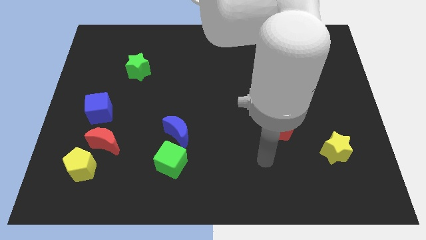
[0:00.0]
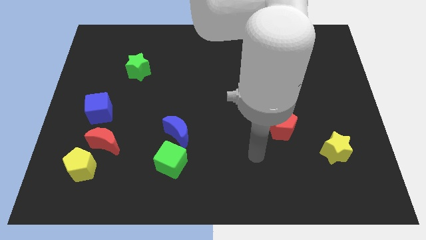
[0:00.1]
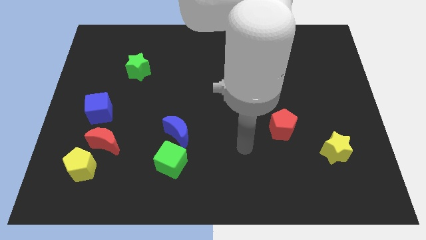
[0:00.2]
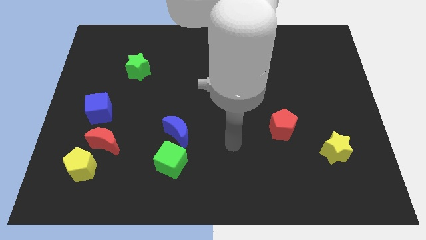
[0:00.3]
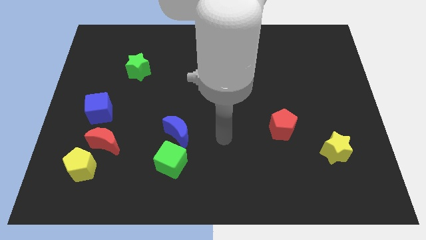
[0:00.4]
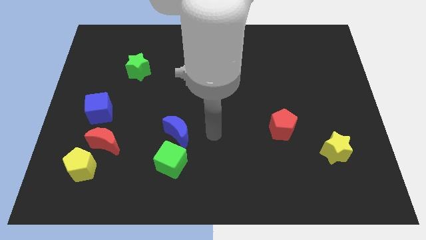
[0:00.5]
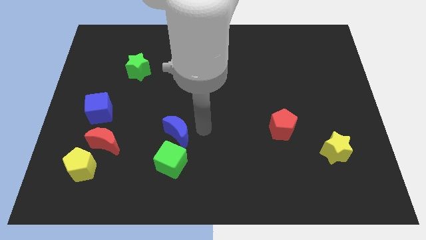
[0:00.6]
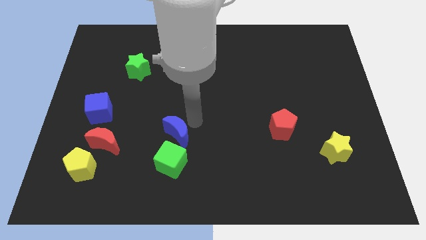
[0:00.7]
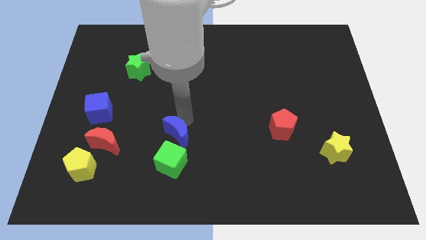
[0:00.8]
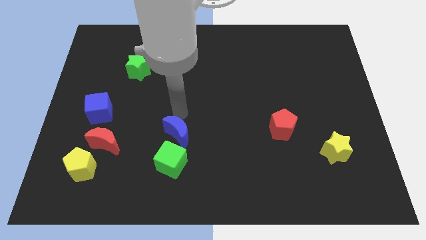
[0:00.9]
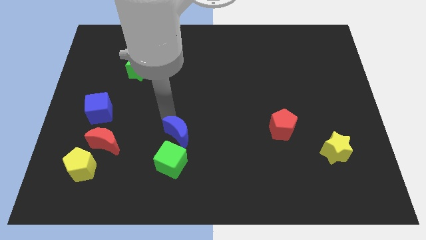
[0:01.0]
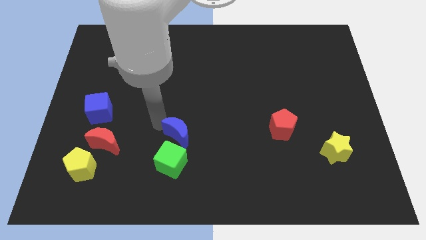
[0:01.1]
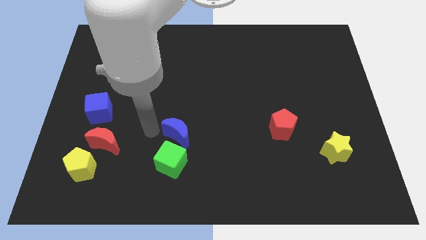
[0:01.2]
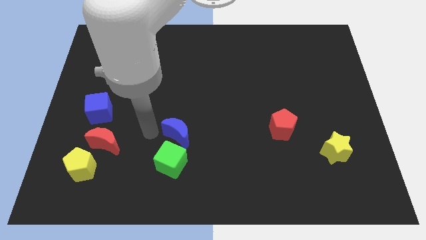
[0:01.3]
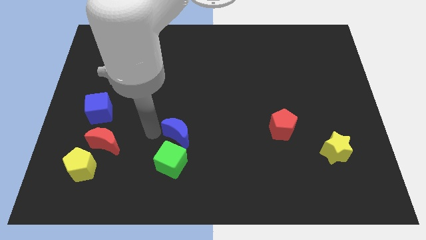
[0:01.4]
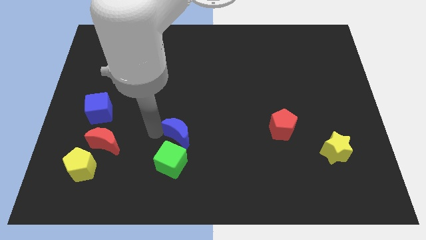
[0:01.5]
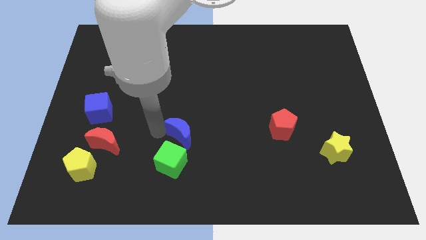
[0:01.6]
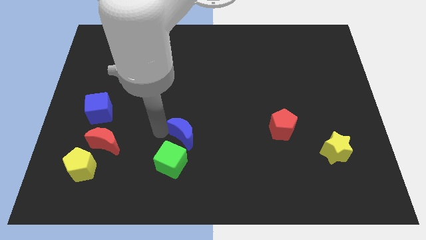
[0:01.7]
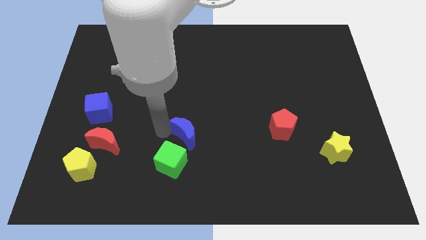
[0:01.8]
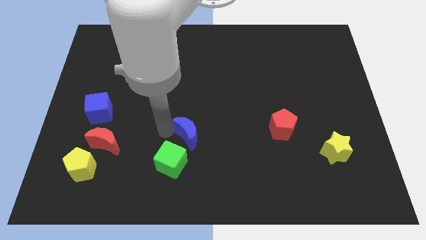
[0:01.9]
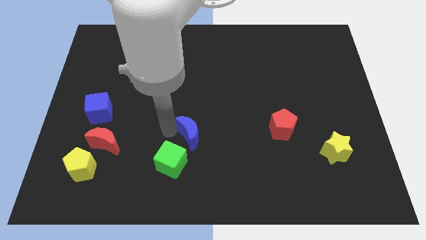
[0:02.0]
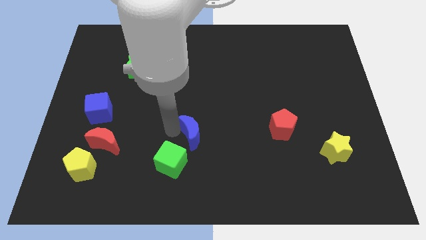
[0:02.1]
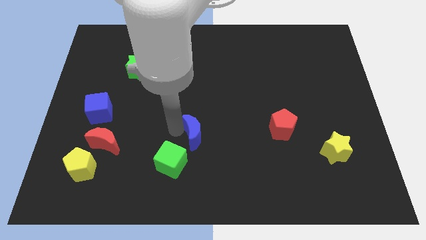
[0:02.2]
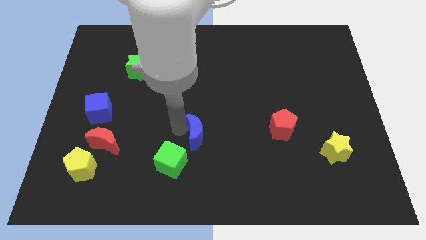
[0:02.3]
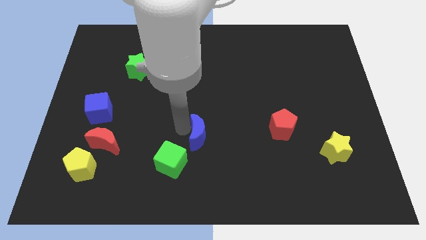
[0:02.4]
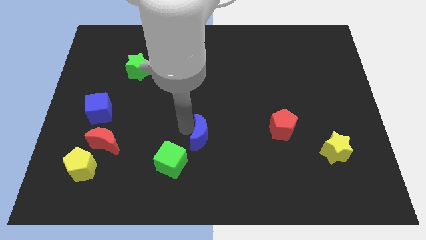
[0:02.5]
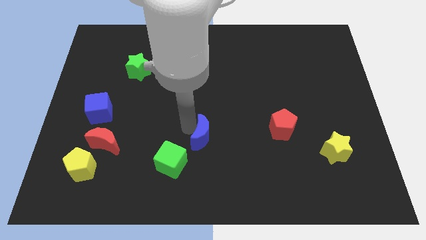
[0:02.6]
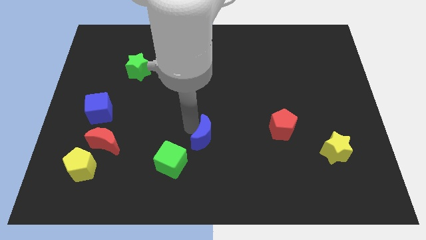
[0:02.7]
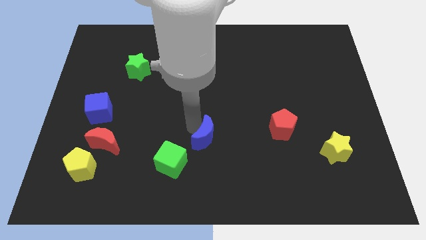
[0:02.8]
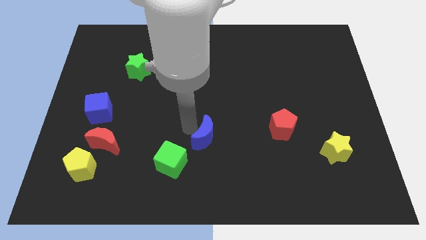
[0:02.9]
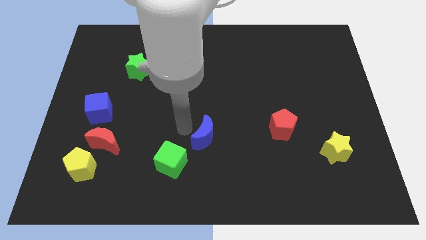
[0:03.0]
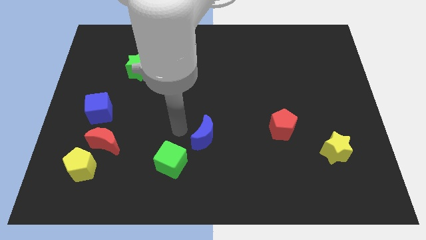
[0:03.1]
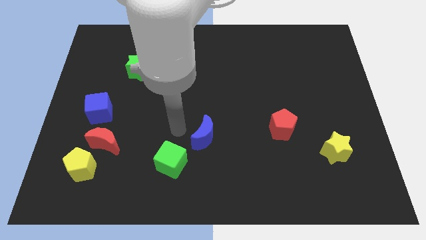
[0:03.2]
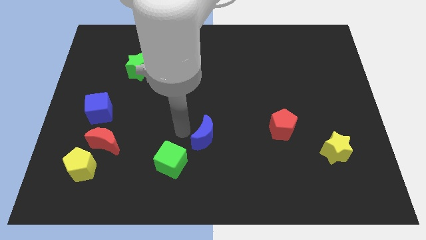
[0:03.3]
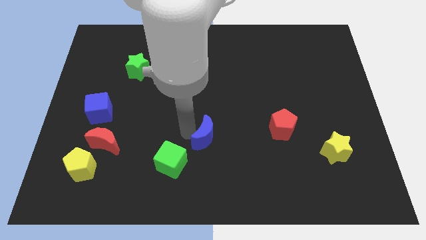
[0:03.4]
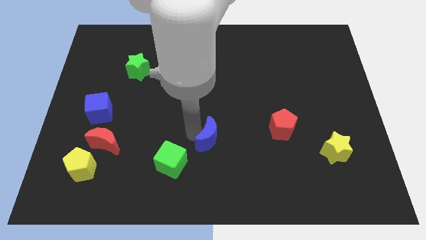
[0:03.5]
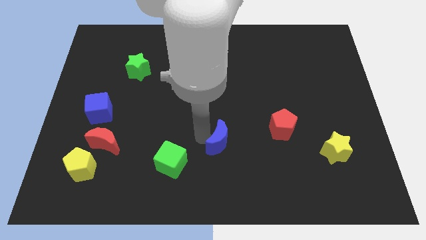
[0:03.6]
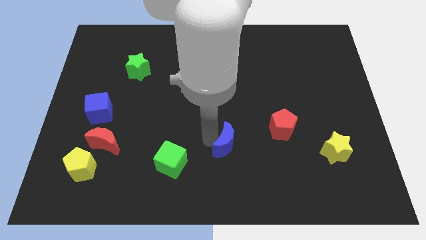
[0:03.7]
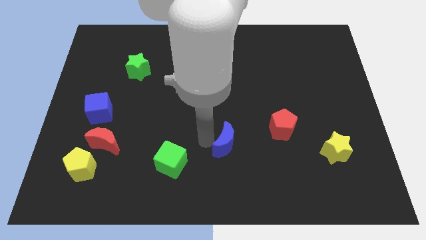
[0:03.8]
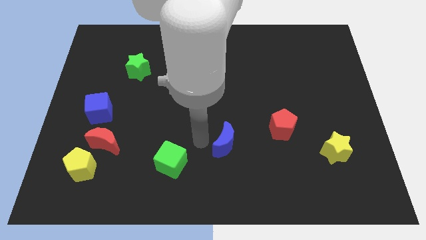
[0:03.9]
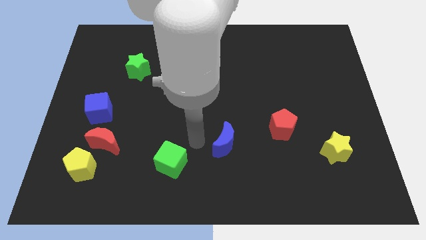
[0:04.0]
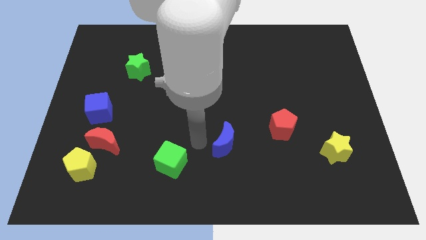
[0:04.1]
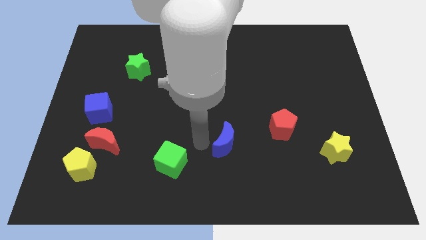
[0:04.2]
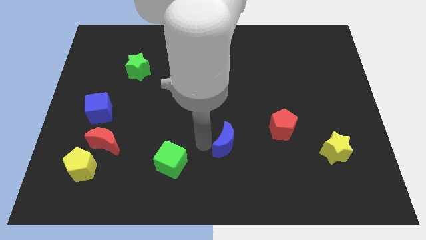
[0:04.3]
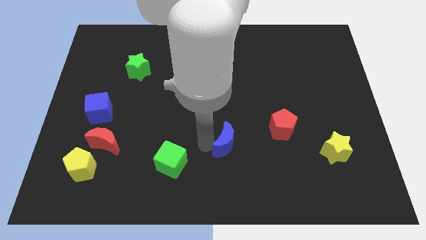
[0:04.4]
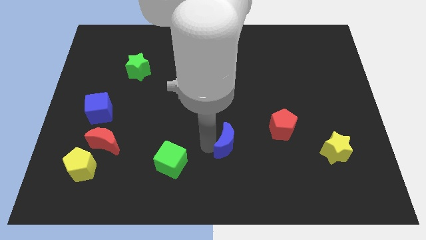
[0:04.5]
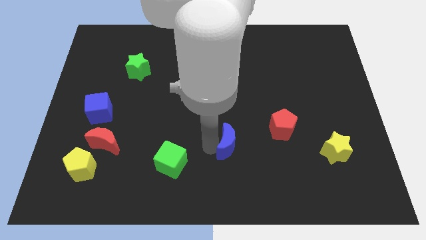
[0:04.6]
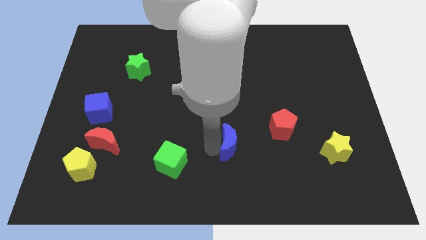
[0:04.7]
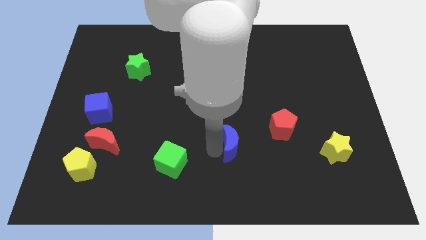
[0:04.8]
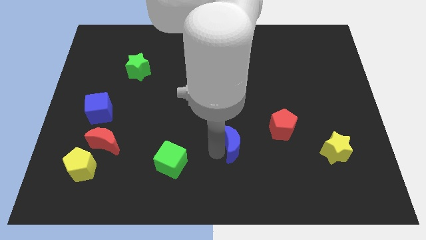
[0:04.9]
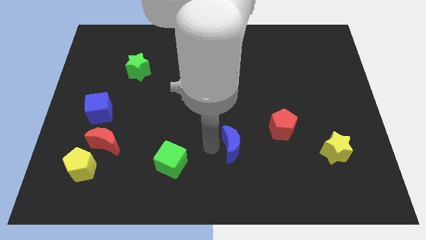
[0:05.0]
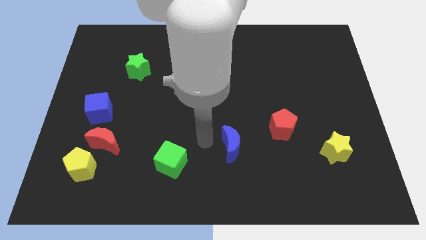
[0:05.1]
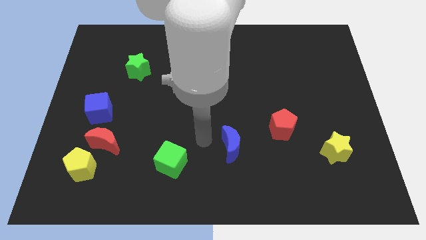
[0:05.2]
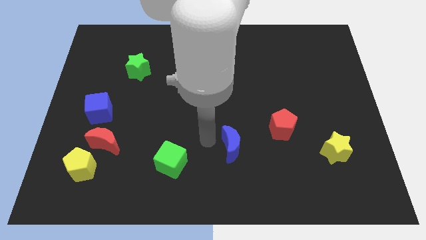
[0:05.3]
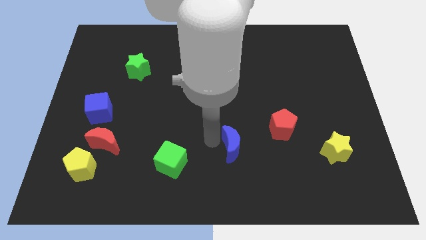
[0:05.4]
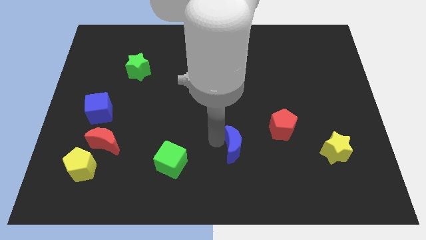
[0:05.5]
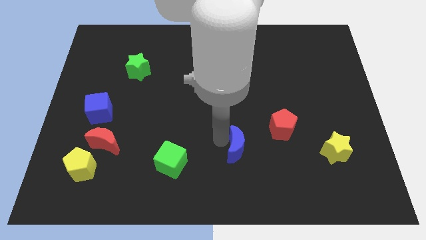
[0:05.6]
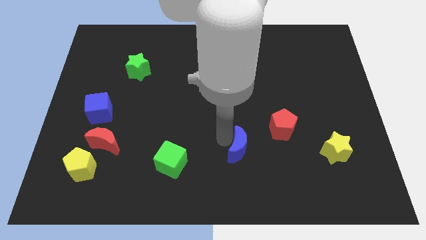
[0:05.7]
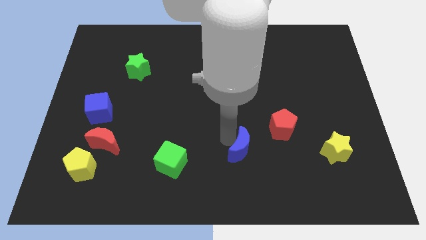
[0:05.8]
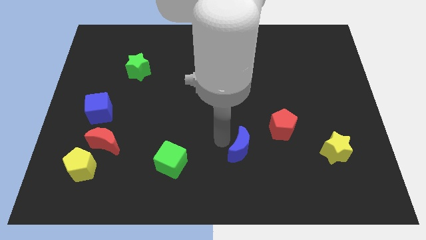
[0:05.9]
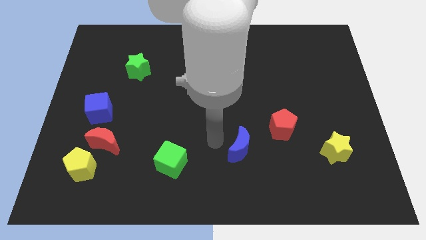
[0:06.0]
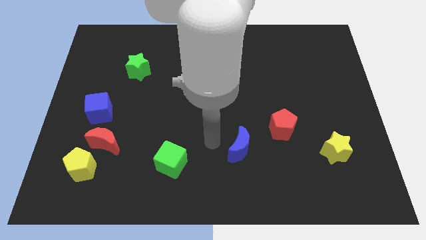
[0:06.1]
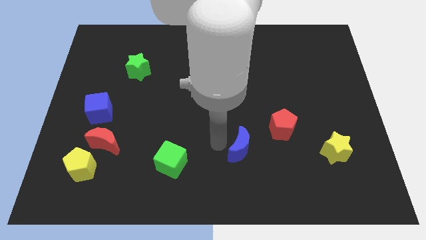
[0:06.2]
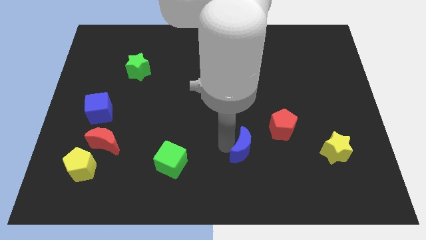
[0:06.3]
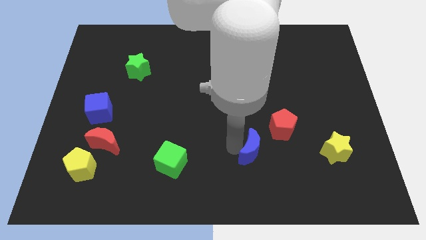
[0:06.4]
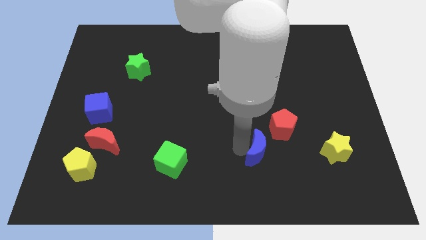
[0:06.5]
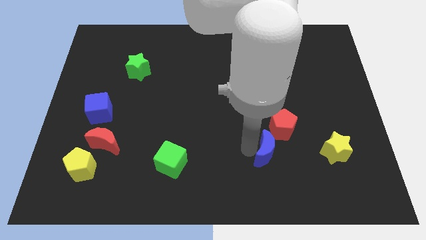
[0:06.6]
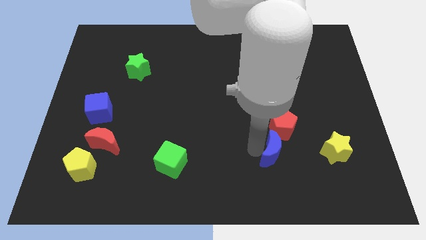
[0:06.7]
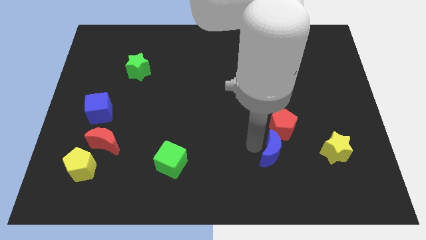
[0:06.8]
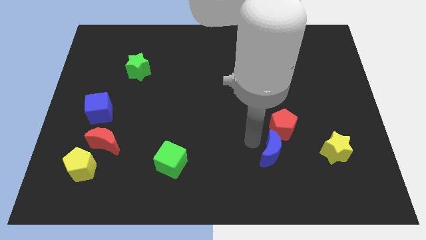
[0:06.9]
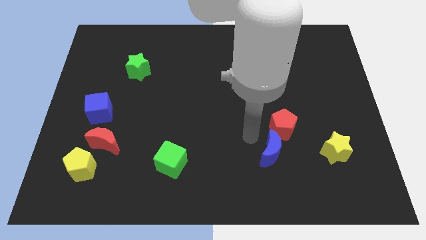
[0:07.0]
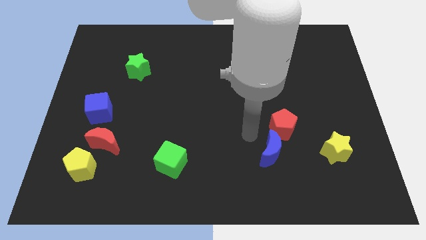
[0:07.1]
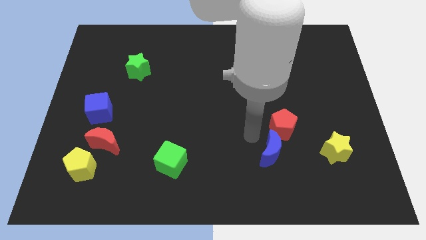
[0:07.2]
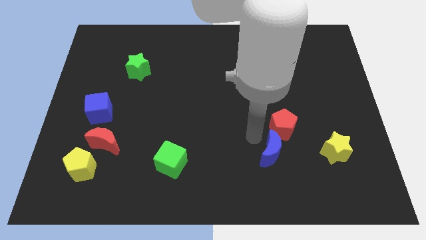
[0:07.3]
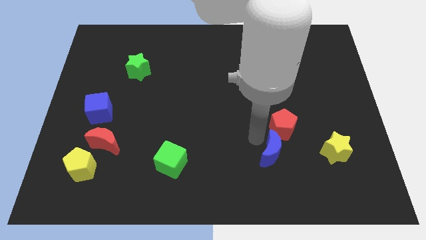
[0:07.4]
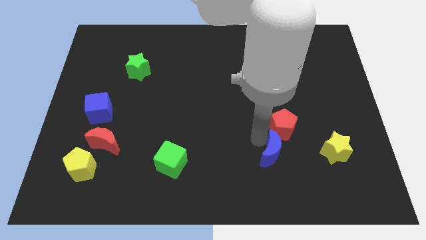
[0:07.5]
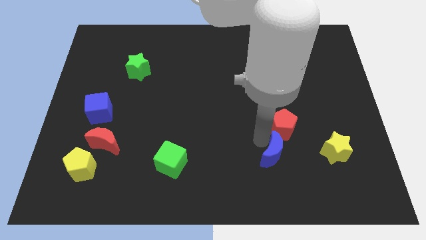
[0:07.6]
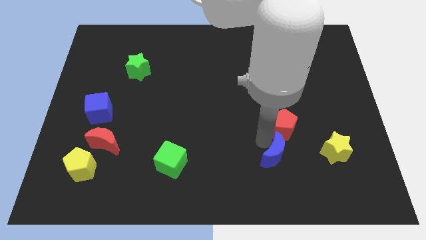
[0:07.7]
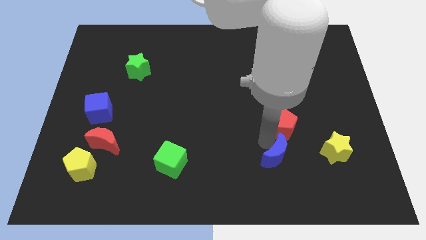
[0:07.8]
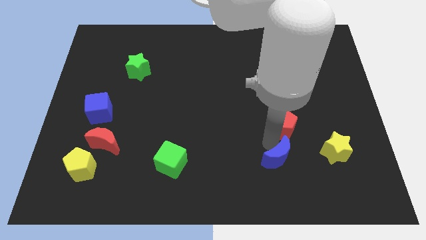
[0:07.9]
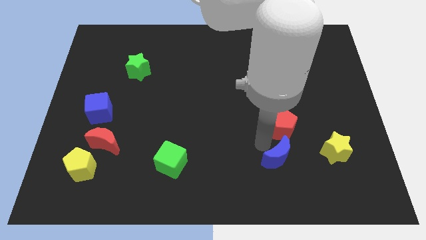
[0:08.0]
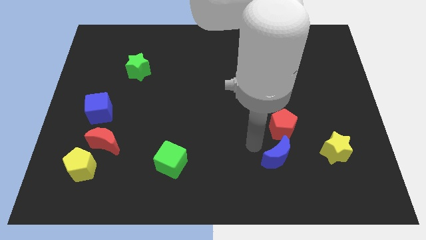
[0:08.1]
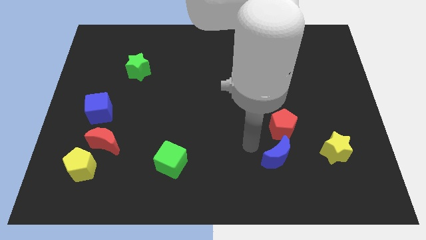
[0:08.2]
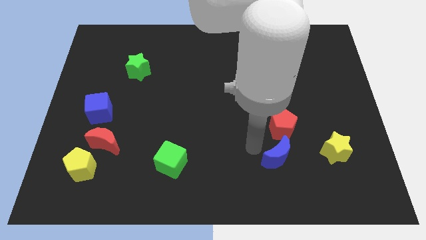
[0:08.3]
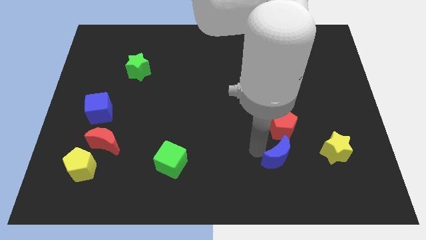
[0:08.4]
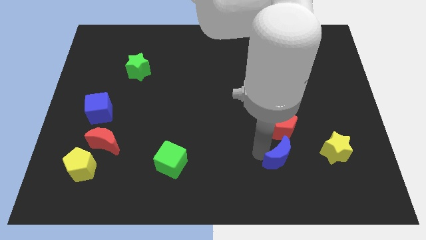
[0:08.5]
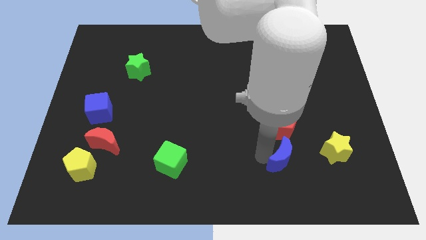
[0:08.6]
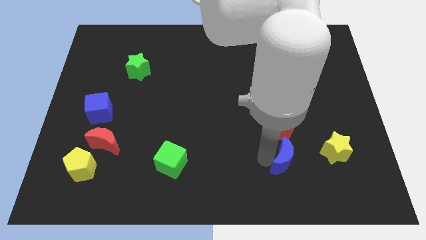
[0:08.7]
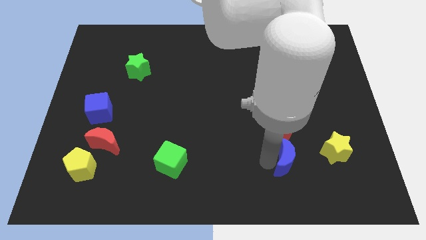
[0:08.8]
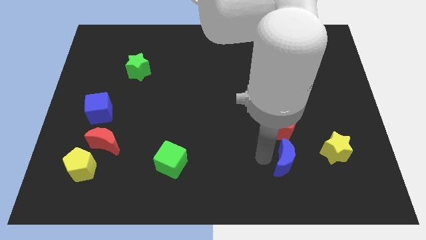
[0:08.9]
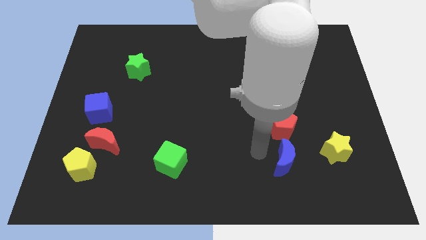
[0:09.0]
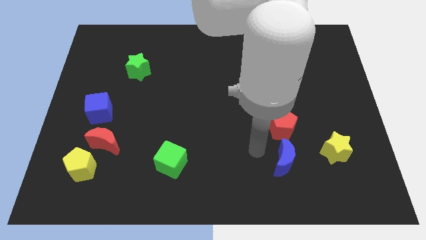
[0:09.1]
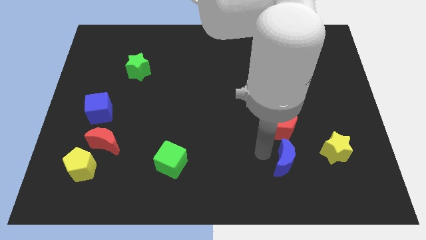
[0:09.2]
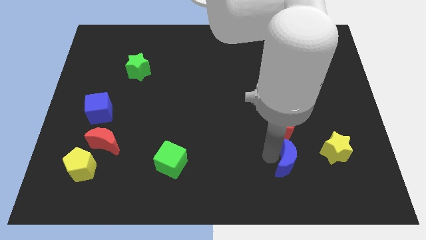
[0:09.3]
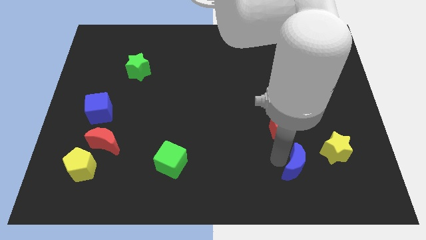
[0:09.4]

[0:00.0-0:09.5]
put the blue moon diagonally down and to the left of the yellow star
